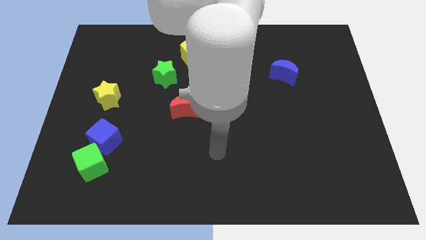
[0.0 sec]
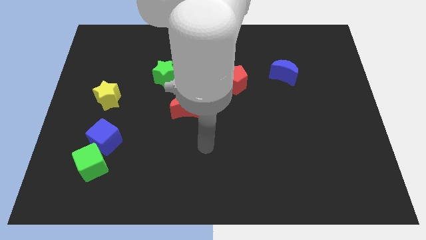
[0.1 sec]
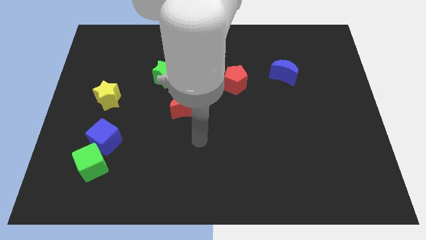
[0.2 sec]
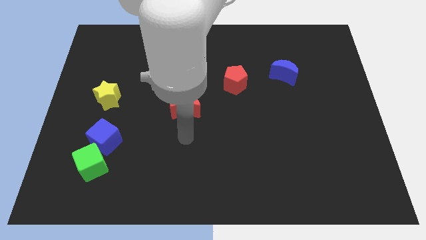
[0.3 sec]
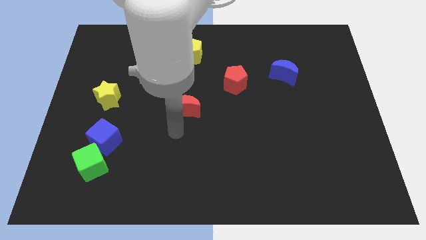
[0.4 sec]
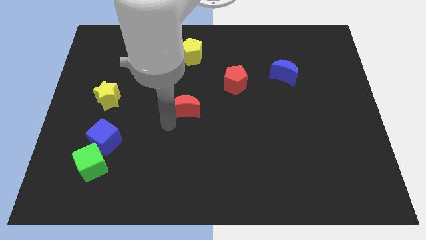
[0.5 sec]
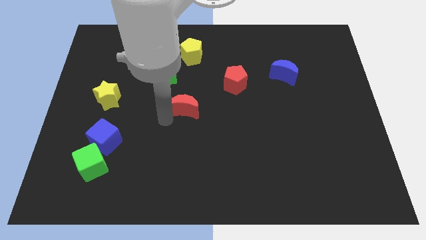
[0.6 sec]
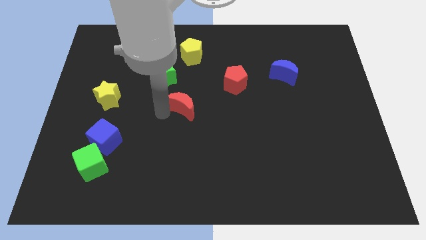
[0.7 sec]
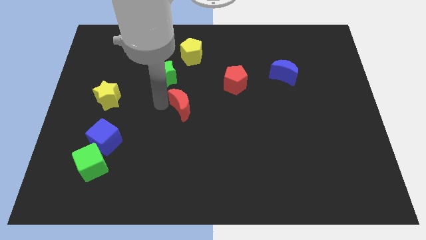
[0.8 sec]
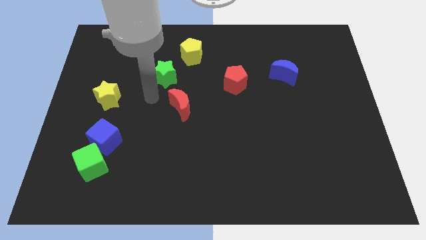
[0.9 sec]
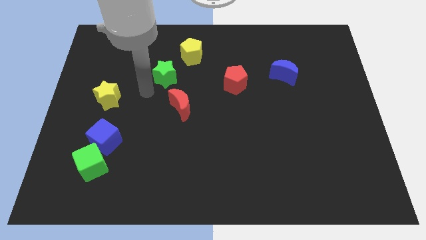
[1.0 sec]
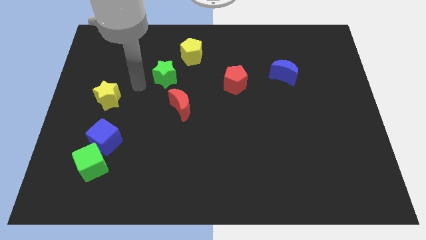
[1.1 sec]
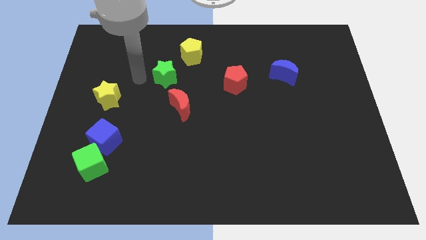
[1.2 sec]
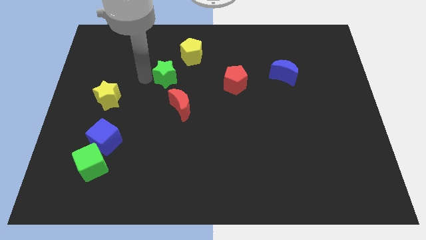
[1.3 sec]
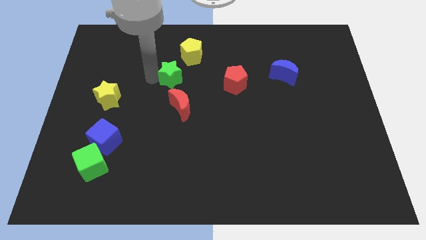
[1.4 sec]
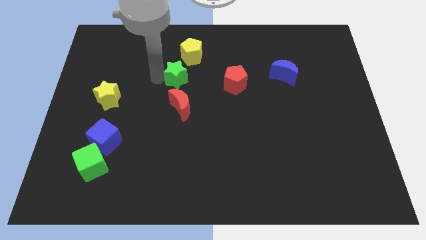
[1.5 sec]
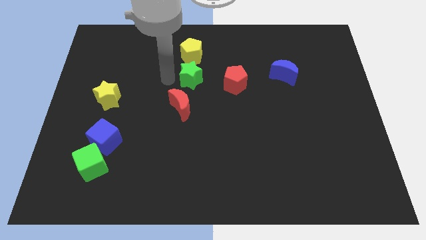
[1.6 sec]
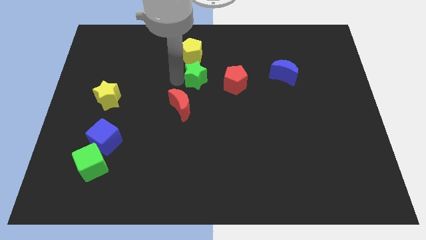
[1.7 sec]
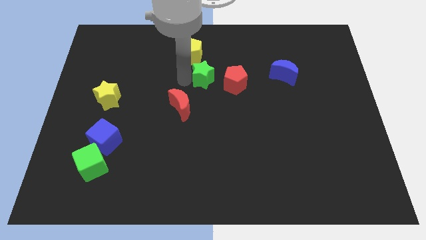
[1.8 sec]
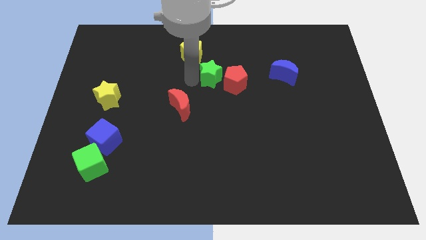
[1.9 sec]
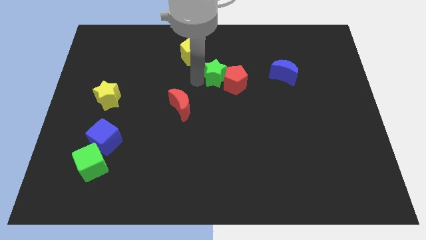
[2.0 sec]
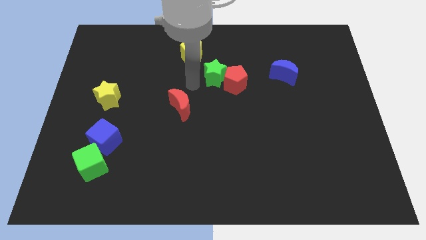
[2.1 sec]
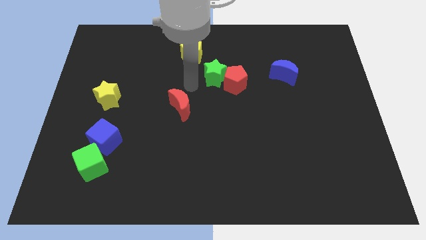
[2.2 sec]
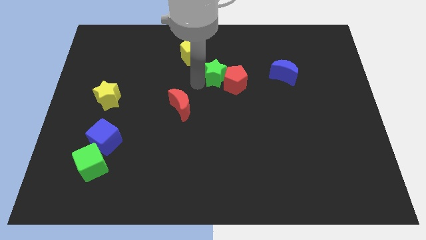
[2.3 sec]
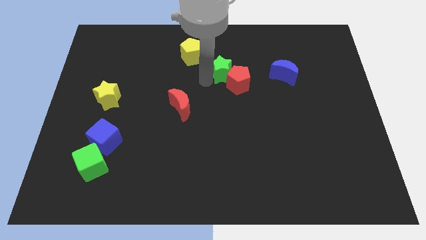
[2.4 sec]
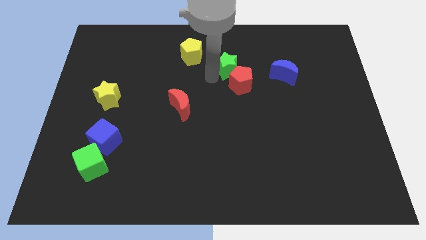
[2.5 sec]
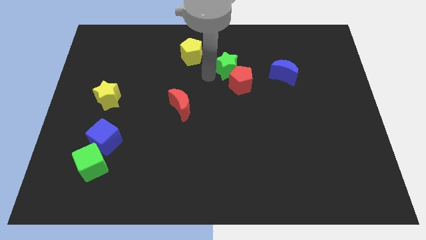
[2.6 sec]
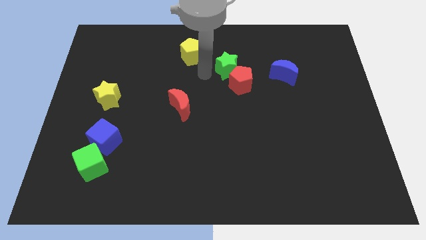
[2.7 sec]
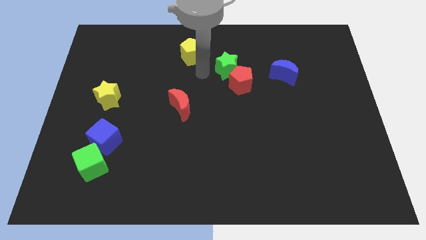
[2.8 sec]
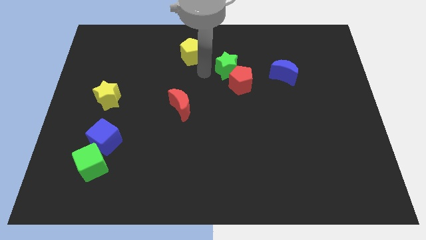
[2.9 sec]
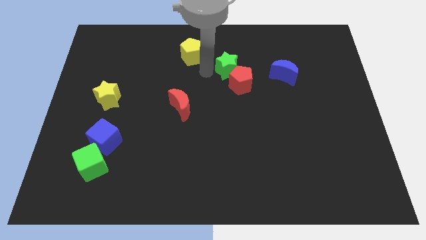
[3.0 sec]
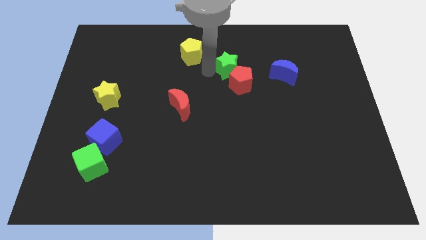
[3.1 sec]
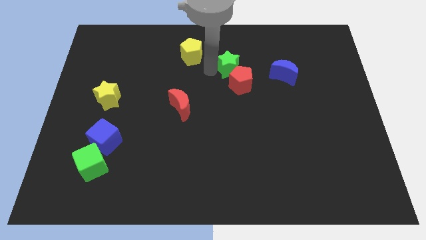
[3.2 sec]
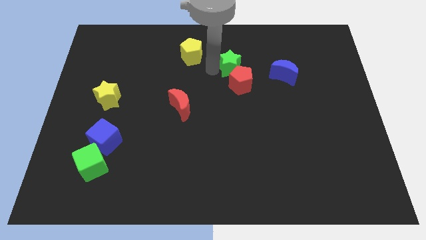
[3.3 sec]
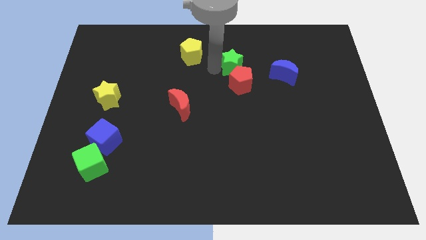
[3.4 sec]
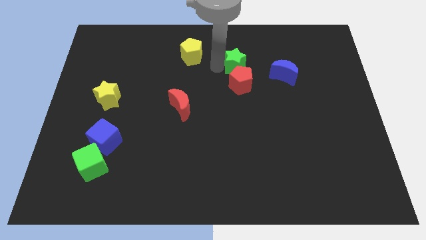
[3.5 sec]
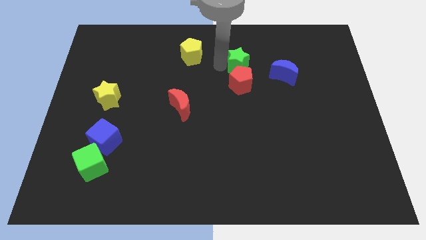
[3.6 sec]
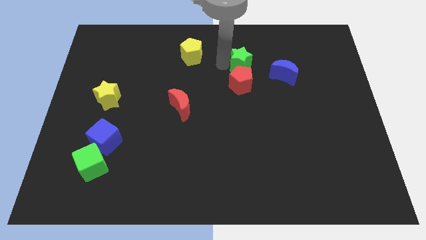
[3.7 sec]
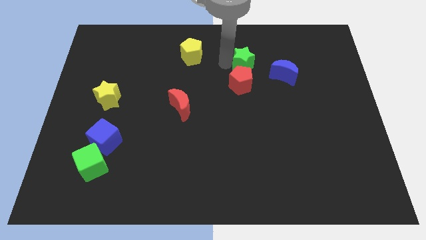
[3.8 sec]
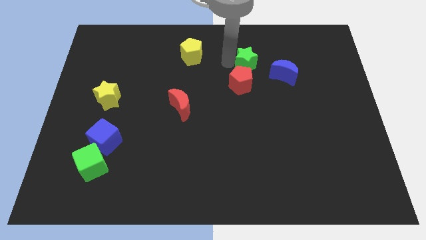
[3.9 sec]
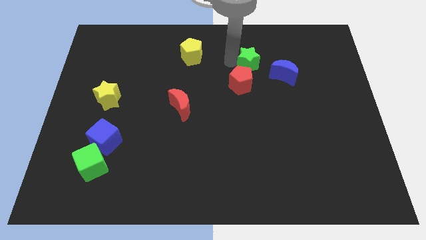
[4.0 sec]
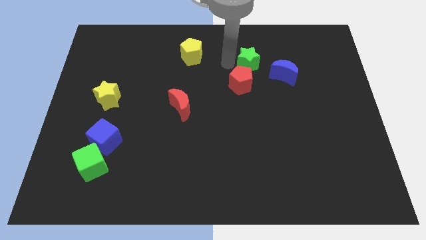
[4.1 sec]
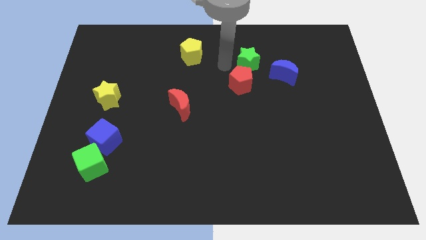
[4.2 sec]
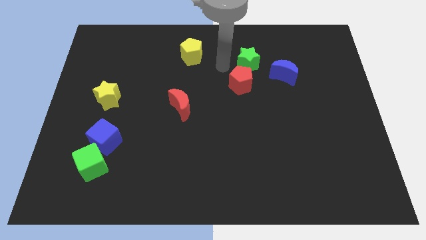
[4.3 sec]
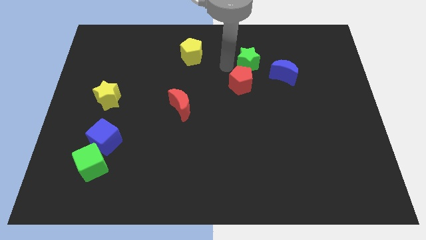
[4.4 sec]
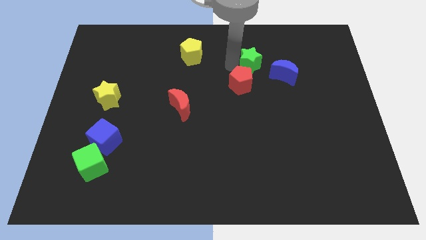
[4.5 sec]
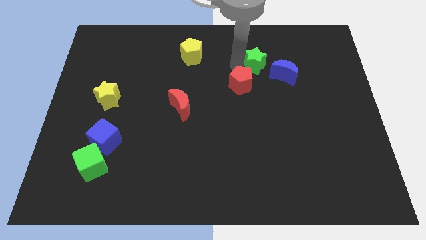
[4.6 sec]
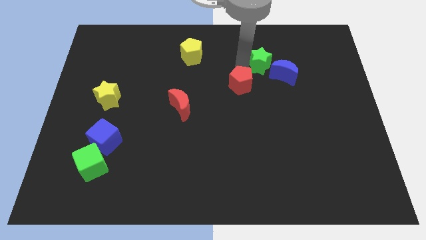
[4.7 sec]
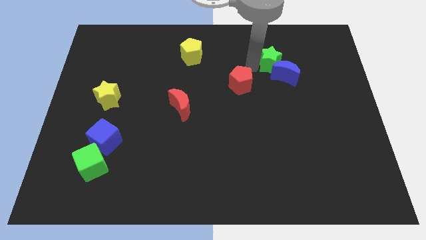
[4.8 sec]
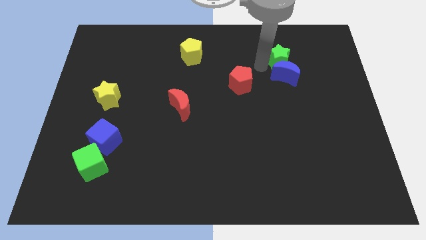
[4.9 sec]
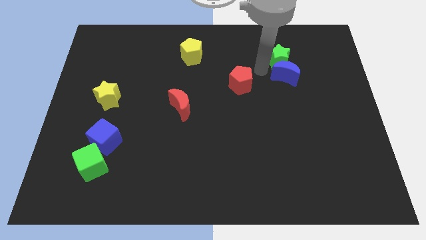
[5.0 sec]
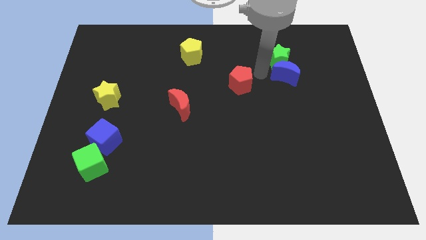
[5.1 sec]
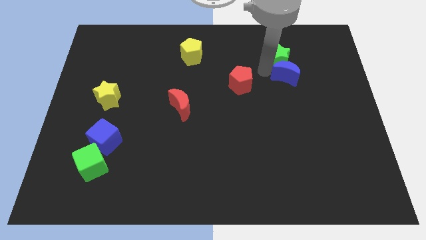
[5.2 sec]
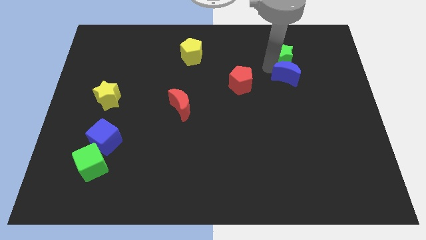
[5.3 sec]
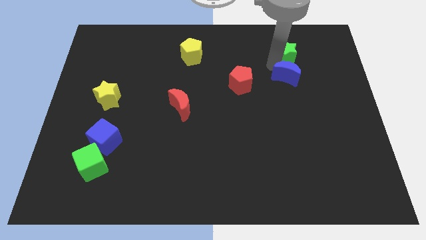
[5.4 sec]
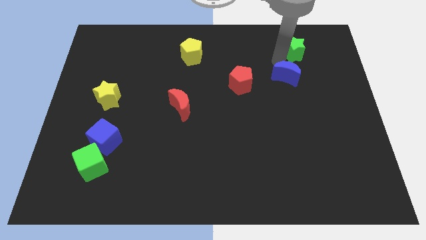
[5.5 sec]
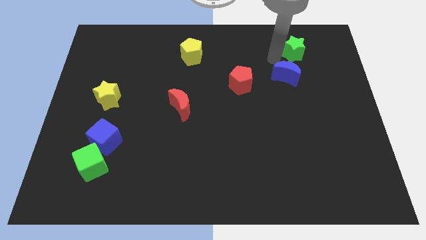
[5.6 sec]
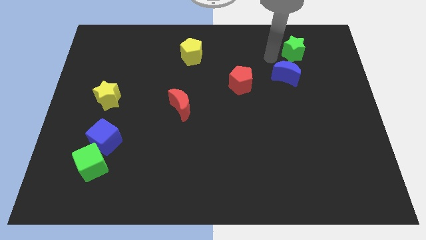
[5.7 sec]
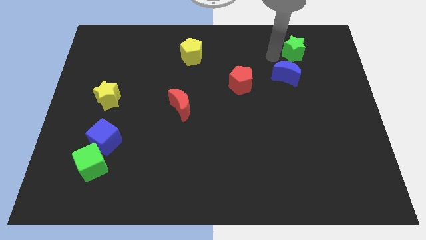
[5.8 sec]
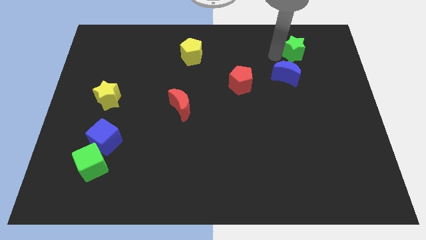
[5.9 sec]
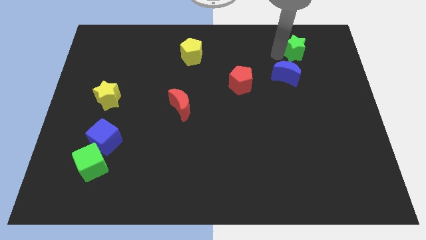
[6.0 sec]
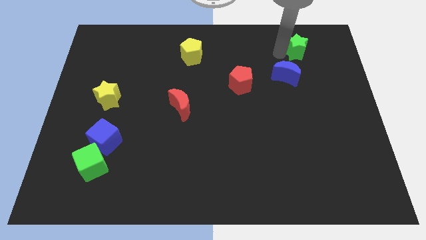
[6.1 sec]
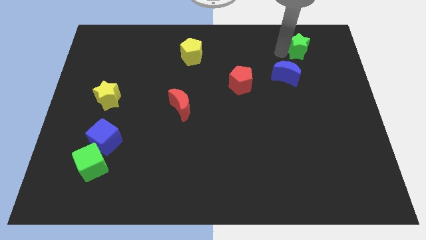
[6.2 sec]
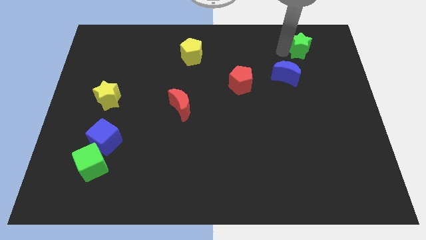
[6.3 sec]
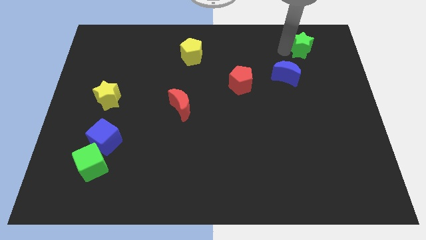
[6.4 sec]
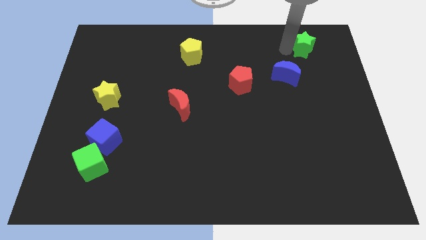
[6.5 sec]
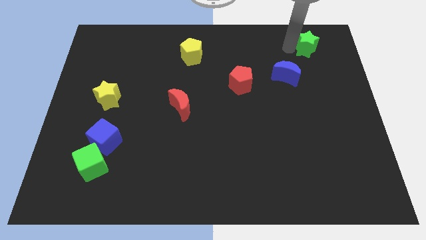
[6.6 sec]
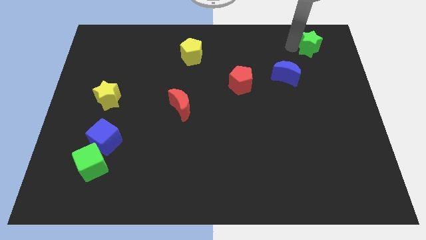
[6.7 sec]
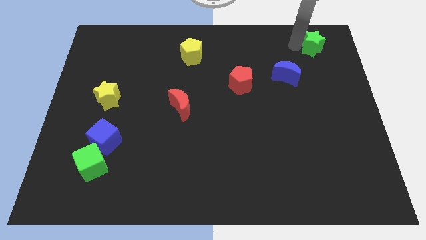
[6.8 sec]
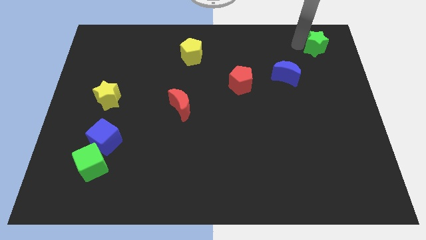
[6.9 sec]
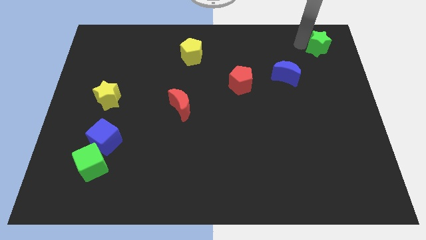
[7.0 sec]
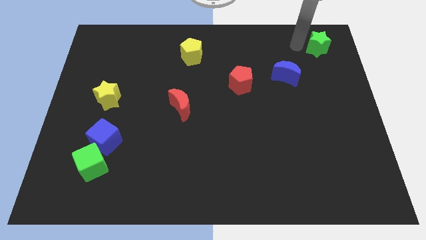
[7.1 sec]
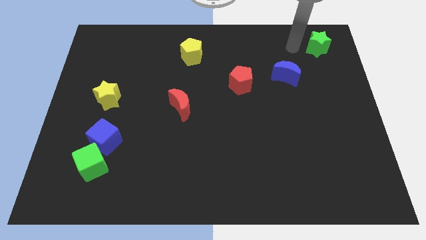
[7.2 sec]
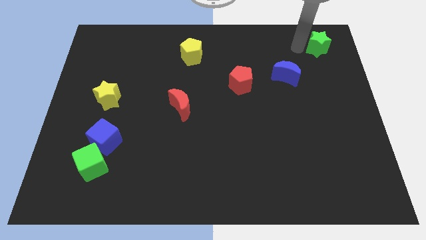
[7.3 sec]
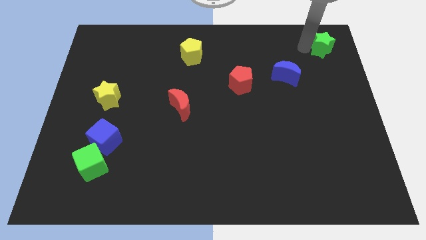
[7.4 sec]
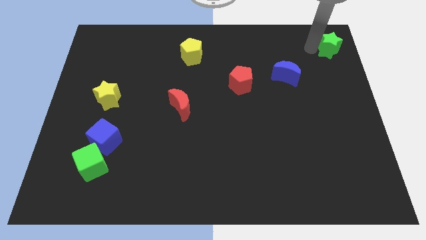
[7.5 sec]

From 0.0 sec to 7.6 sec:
move the green star to the top right

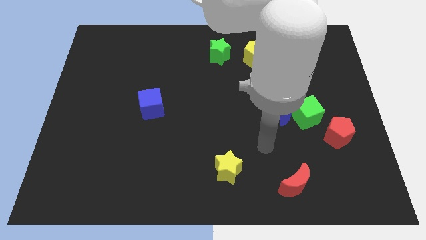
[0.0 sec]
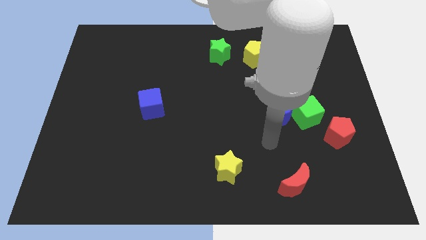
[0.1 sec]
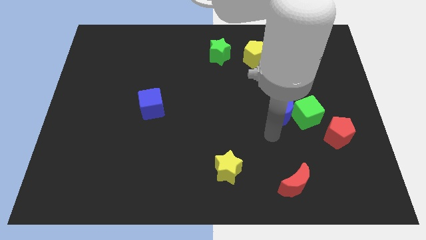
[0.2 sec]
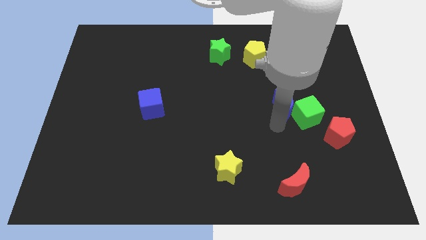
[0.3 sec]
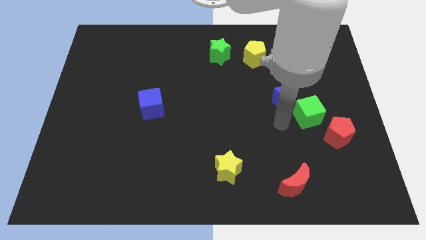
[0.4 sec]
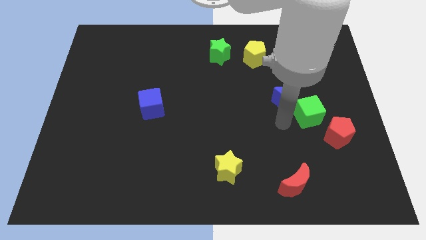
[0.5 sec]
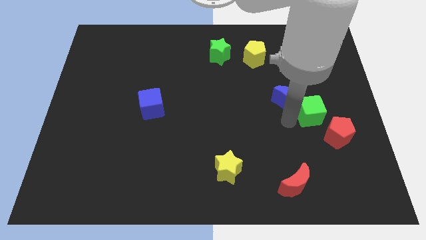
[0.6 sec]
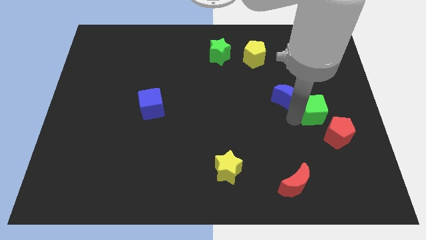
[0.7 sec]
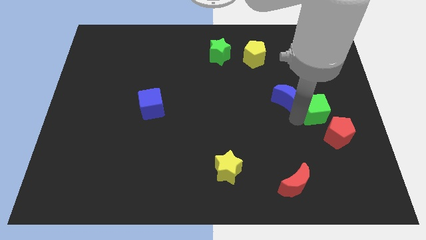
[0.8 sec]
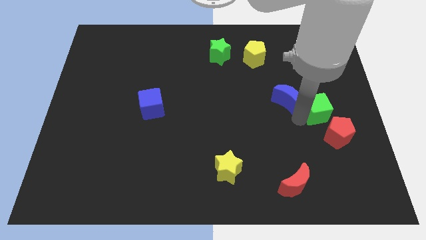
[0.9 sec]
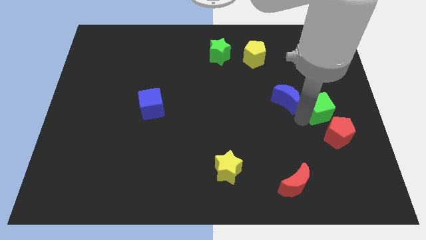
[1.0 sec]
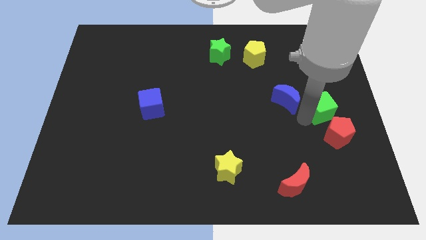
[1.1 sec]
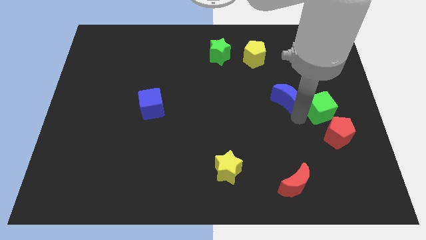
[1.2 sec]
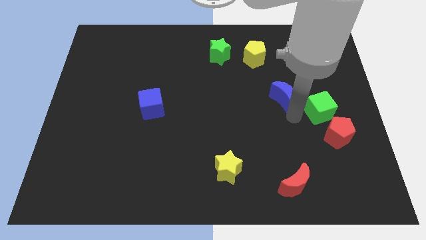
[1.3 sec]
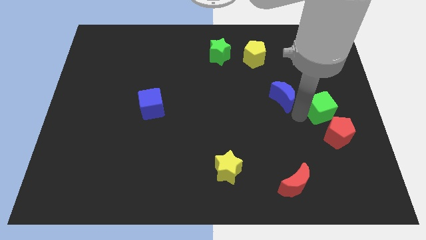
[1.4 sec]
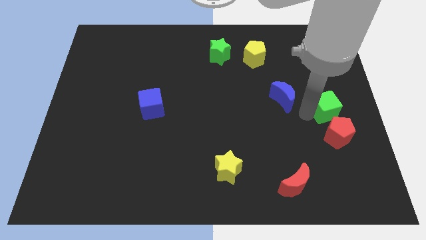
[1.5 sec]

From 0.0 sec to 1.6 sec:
push the green cube to the center right
